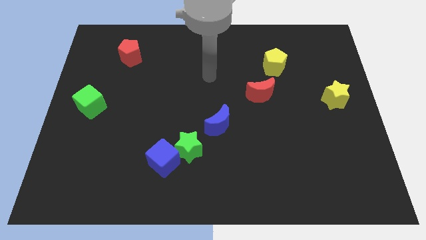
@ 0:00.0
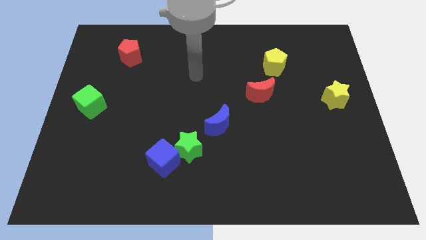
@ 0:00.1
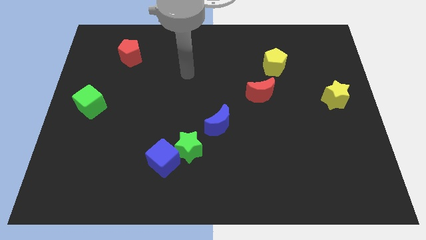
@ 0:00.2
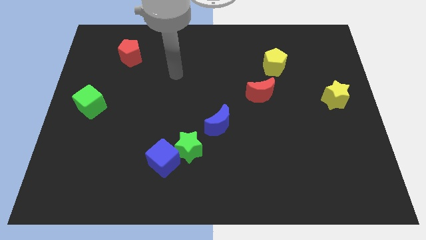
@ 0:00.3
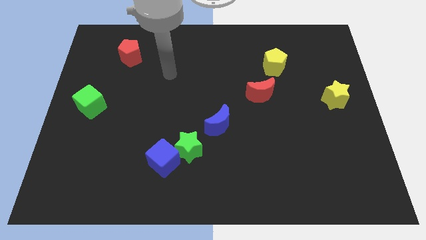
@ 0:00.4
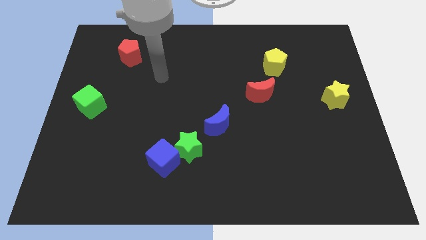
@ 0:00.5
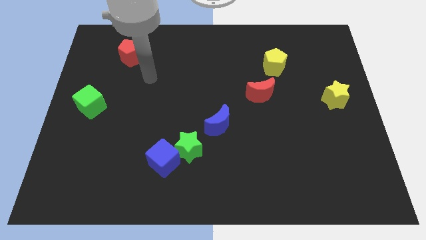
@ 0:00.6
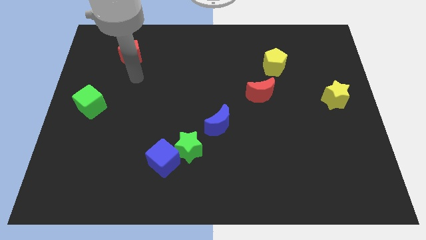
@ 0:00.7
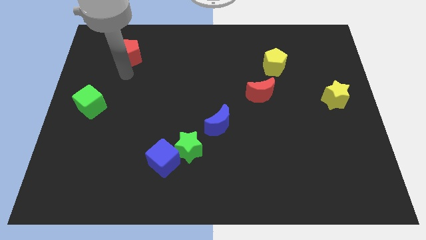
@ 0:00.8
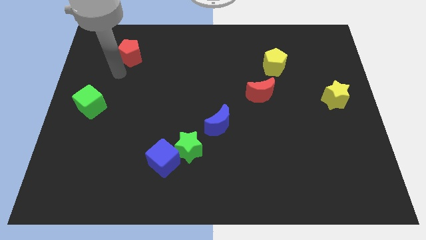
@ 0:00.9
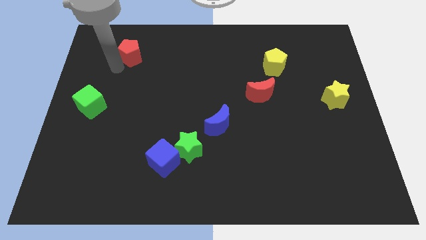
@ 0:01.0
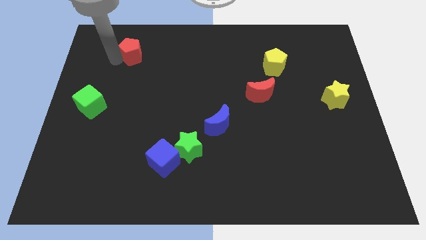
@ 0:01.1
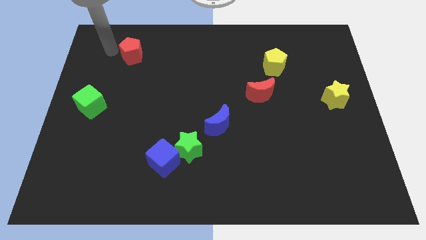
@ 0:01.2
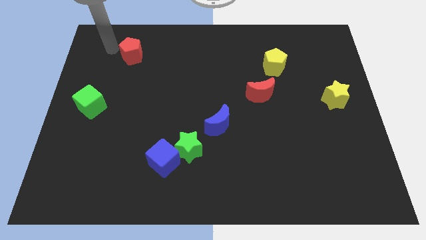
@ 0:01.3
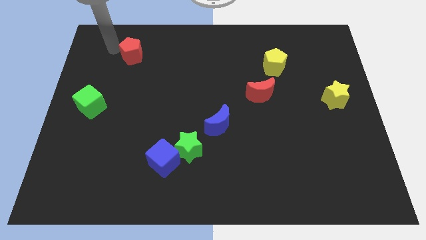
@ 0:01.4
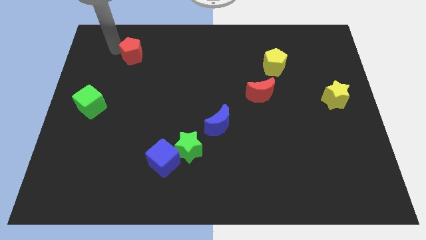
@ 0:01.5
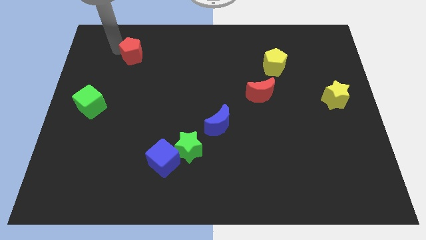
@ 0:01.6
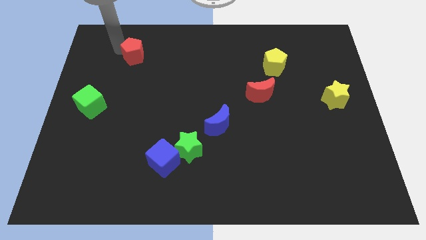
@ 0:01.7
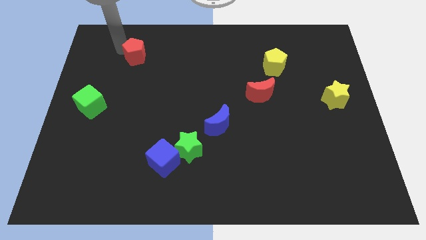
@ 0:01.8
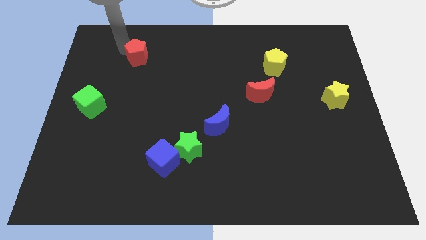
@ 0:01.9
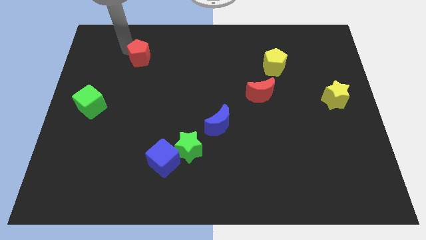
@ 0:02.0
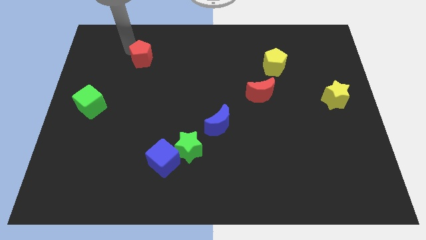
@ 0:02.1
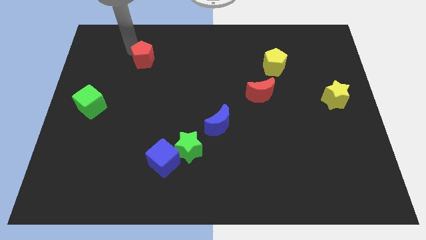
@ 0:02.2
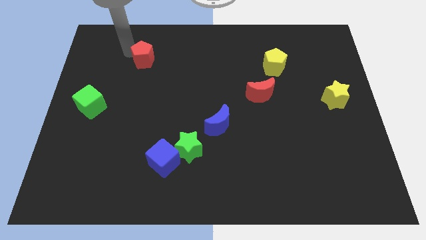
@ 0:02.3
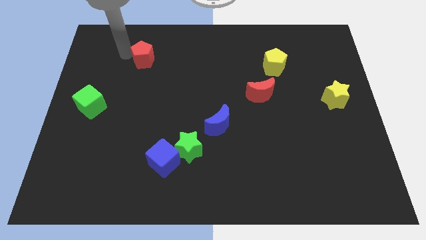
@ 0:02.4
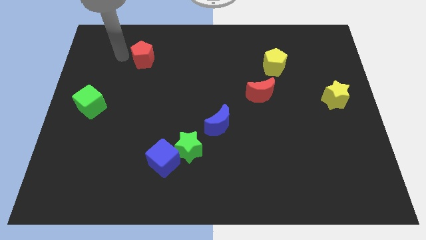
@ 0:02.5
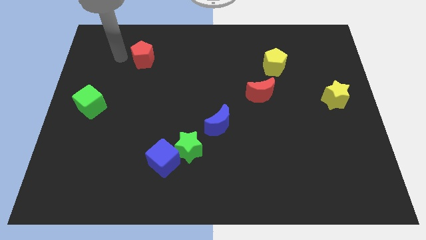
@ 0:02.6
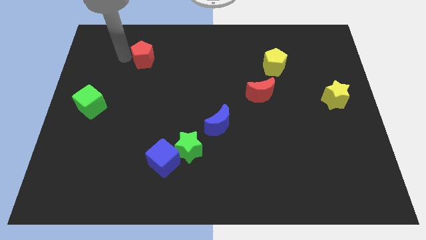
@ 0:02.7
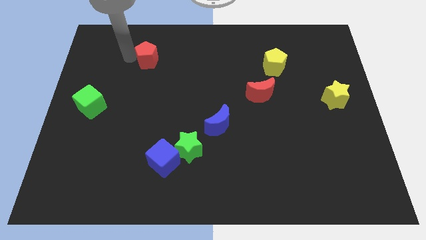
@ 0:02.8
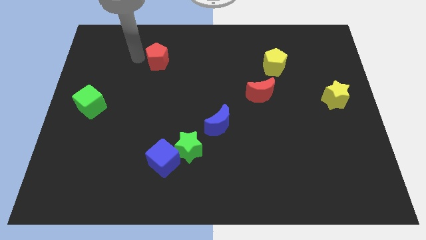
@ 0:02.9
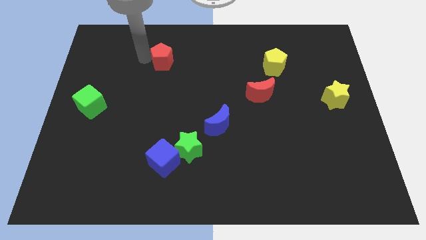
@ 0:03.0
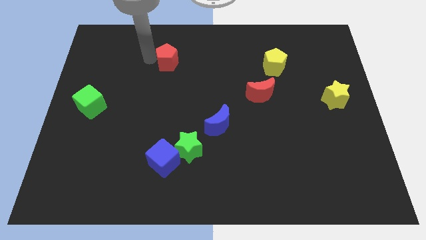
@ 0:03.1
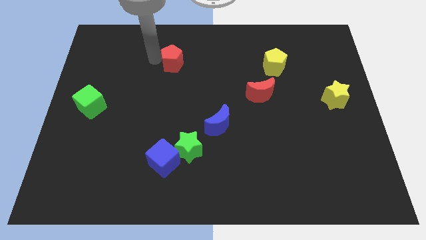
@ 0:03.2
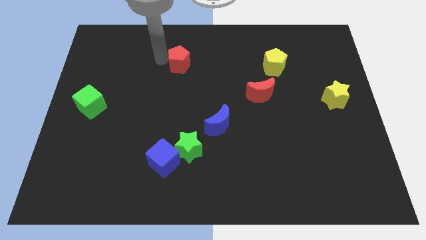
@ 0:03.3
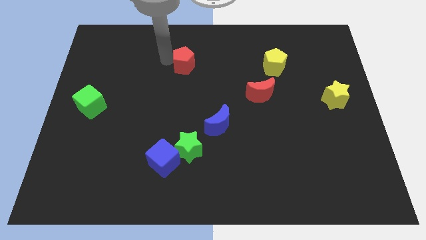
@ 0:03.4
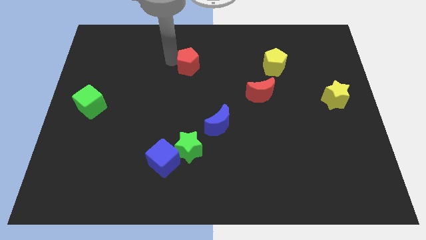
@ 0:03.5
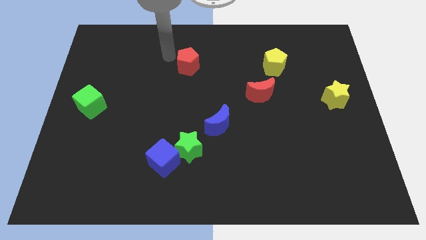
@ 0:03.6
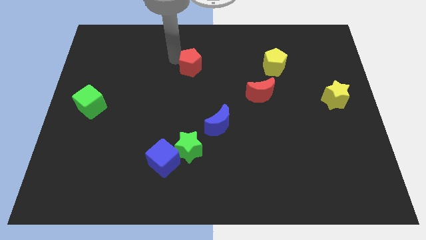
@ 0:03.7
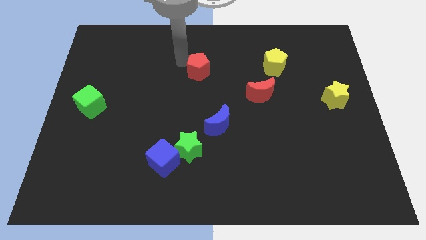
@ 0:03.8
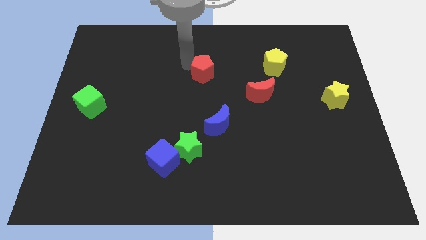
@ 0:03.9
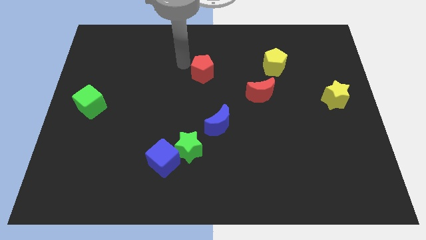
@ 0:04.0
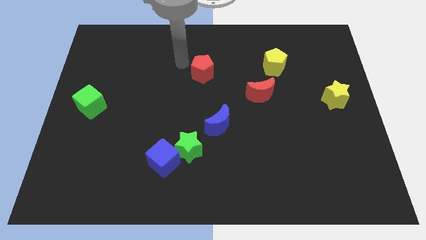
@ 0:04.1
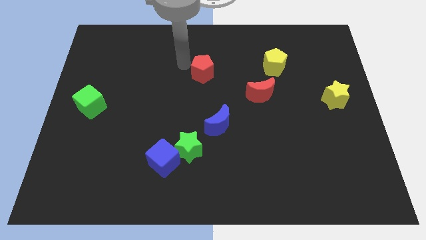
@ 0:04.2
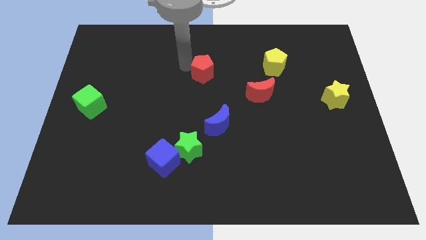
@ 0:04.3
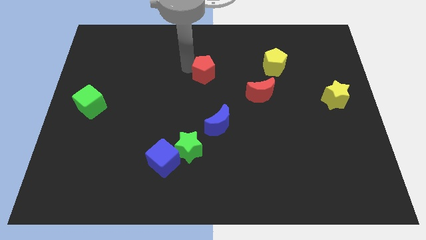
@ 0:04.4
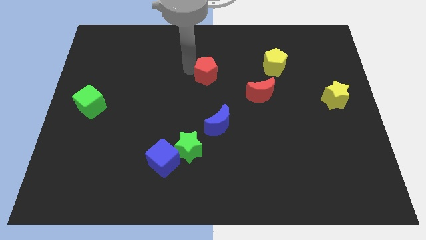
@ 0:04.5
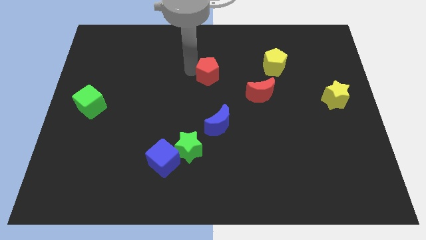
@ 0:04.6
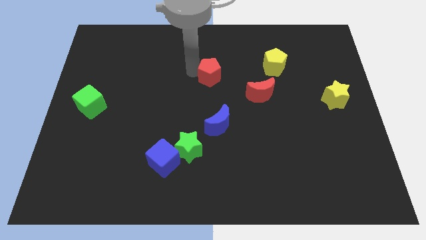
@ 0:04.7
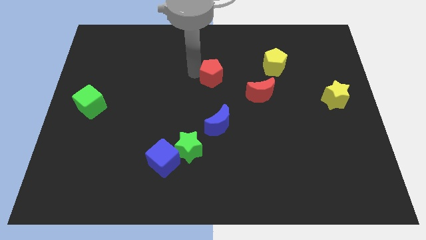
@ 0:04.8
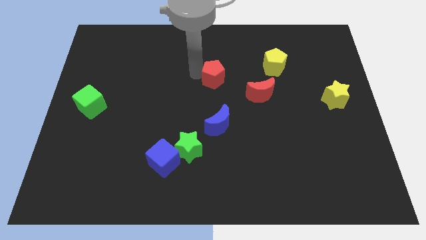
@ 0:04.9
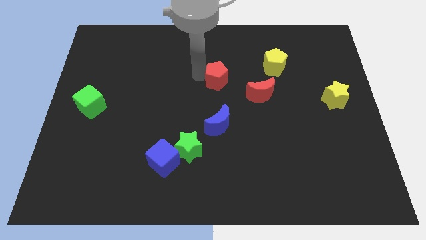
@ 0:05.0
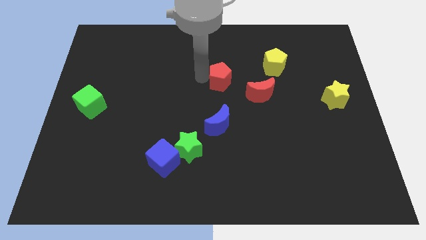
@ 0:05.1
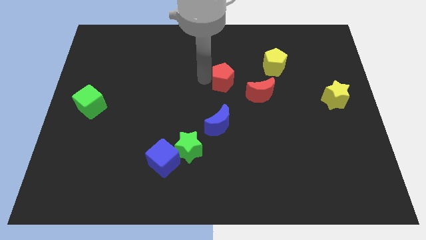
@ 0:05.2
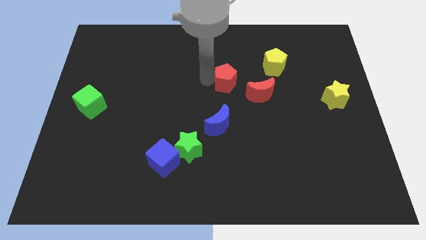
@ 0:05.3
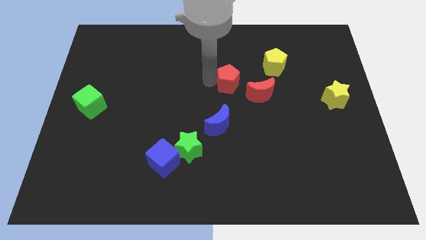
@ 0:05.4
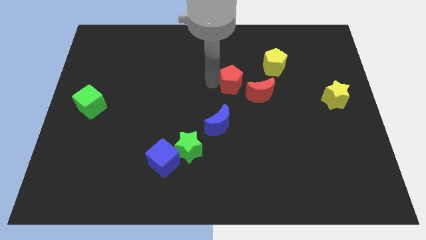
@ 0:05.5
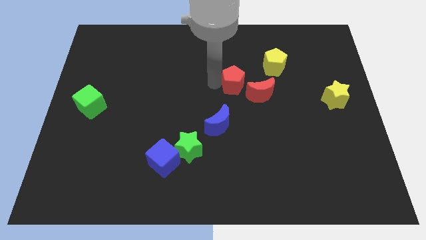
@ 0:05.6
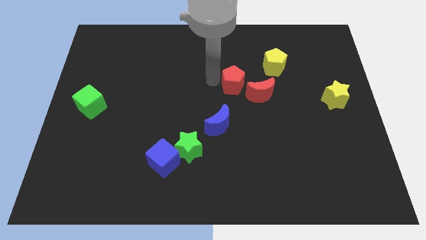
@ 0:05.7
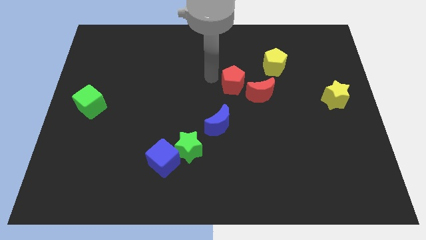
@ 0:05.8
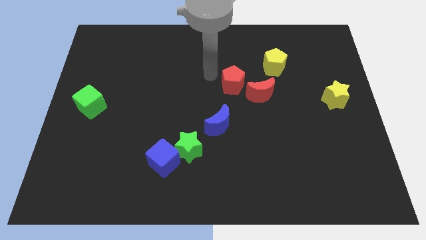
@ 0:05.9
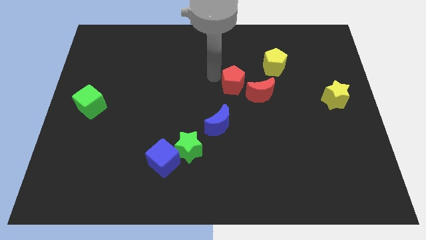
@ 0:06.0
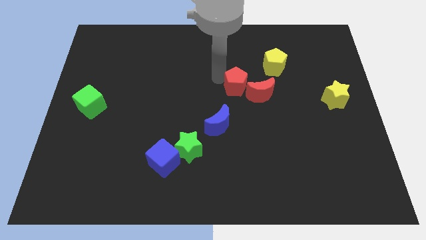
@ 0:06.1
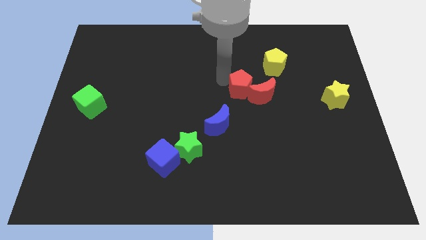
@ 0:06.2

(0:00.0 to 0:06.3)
put the red pentagon next to the red moon
